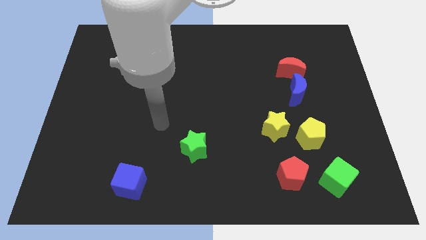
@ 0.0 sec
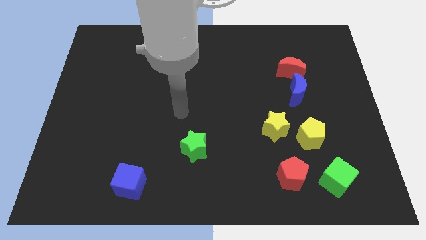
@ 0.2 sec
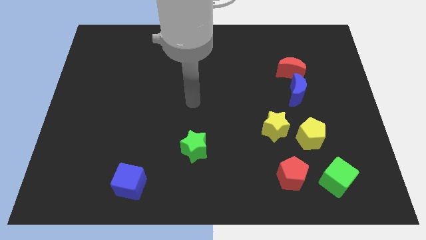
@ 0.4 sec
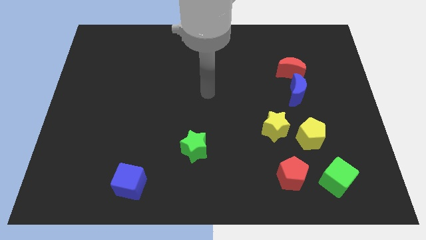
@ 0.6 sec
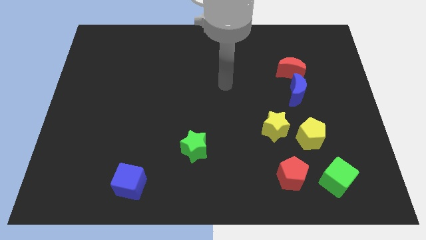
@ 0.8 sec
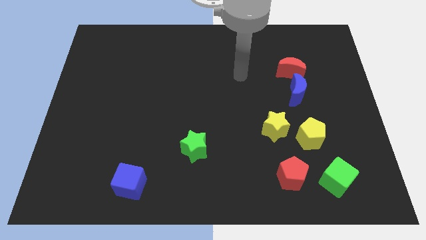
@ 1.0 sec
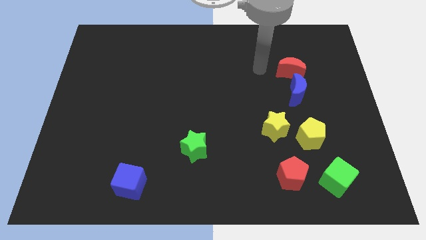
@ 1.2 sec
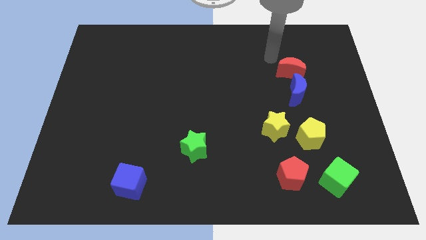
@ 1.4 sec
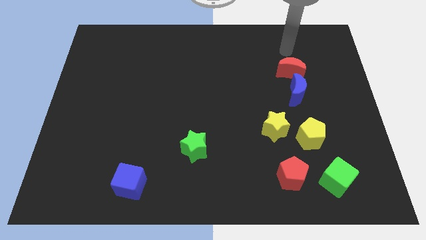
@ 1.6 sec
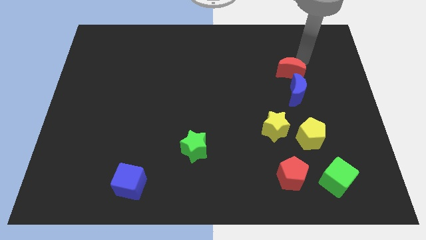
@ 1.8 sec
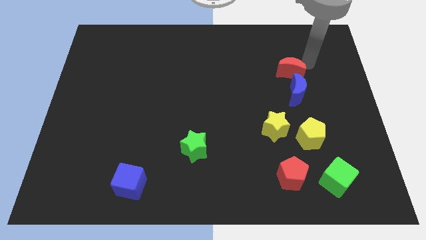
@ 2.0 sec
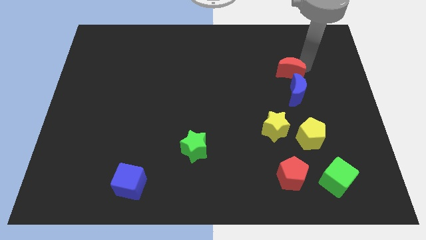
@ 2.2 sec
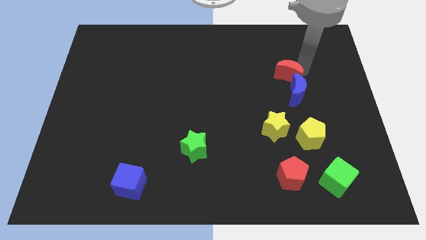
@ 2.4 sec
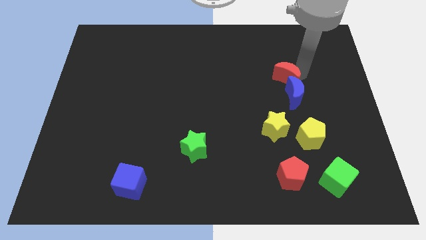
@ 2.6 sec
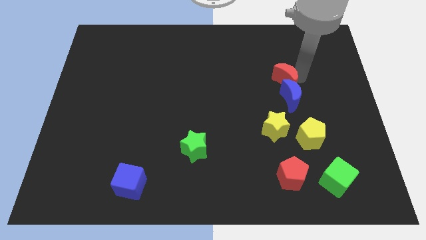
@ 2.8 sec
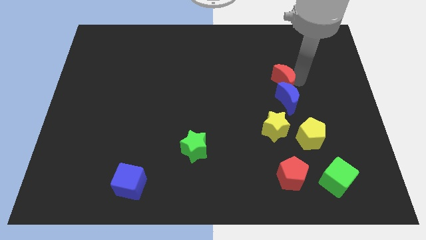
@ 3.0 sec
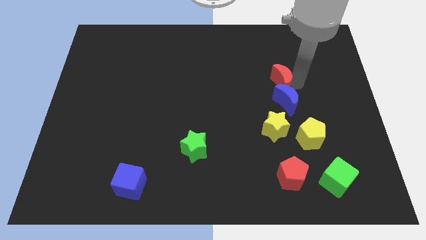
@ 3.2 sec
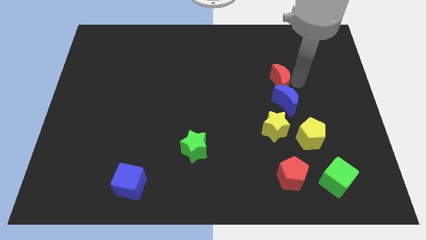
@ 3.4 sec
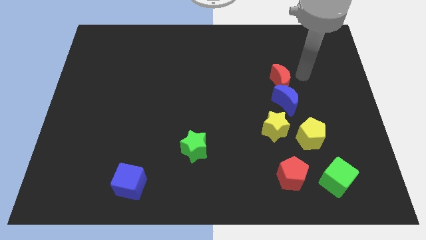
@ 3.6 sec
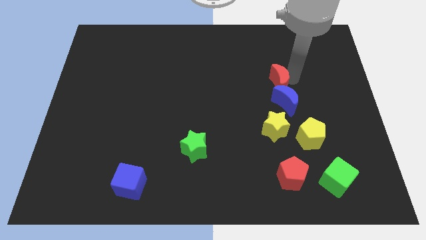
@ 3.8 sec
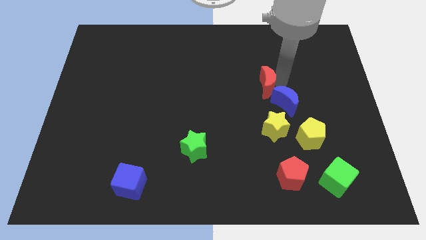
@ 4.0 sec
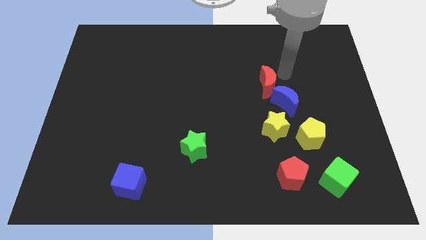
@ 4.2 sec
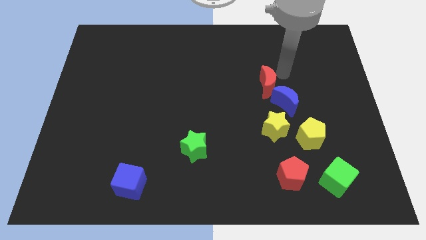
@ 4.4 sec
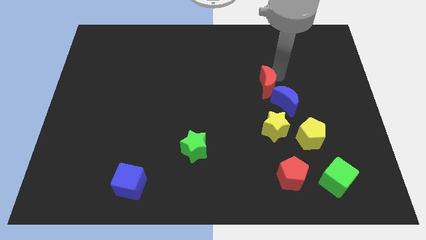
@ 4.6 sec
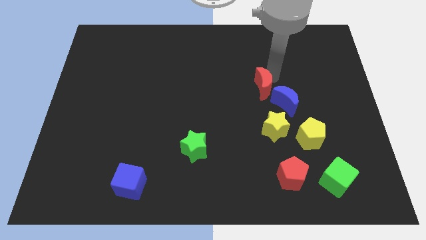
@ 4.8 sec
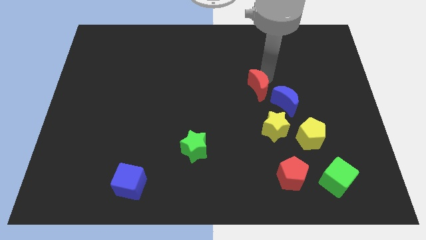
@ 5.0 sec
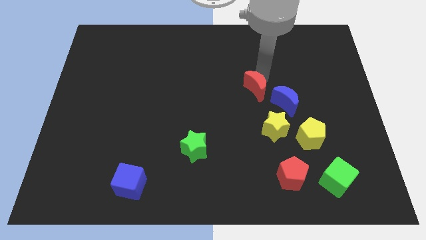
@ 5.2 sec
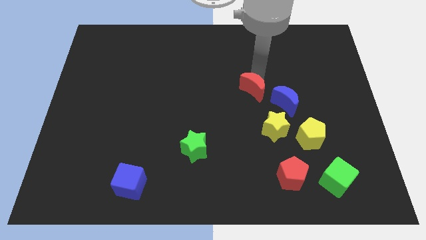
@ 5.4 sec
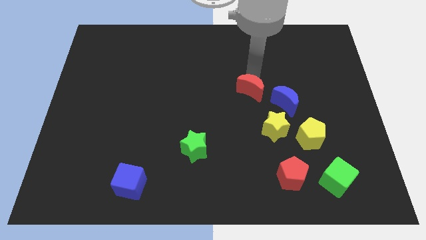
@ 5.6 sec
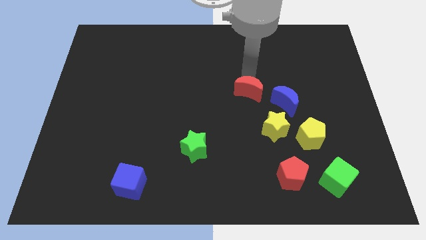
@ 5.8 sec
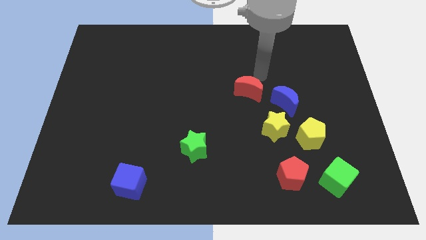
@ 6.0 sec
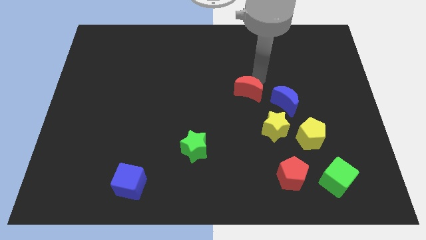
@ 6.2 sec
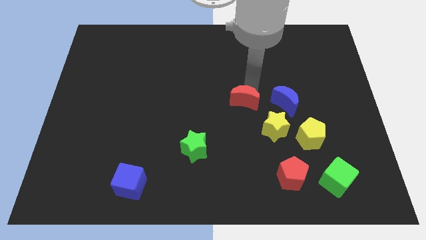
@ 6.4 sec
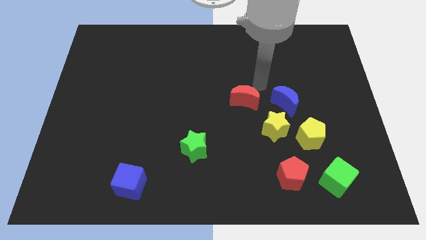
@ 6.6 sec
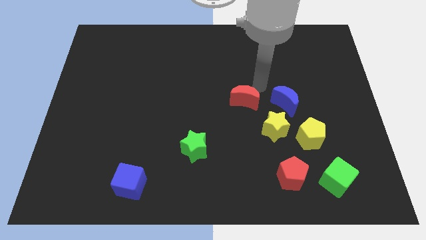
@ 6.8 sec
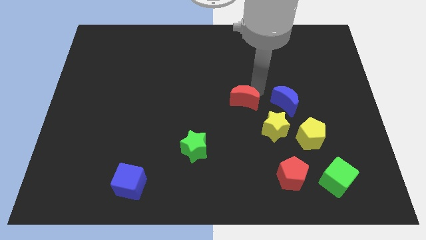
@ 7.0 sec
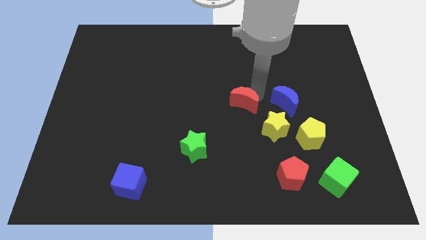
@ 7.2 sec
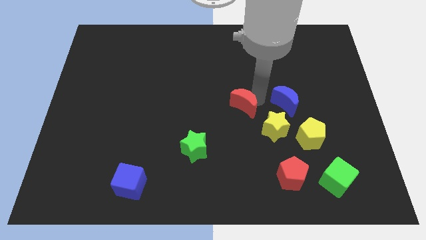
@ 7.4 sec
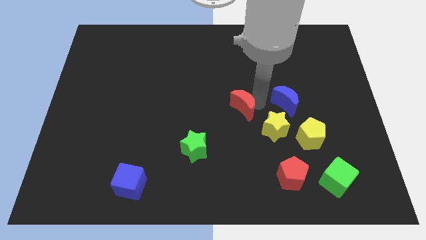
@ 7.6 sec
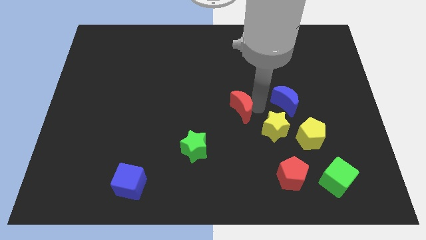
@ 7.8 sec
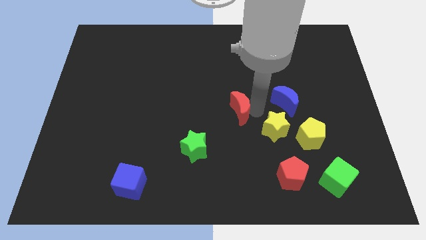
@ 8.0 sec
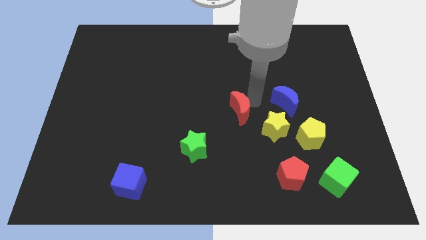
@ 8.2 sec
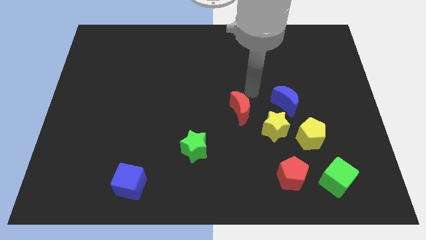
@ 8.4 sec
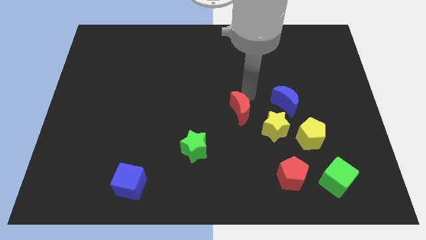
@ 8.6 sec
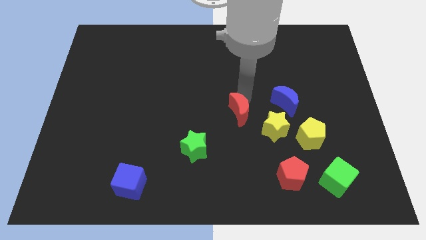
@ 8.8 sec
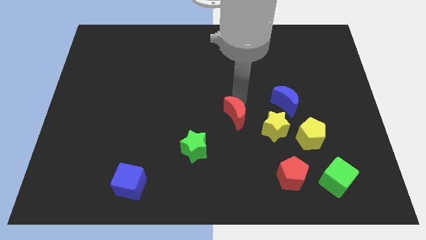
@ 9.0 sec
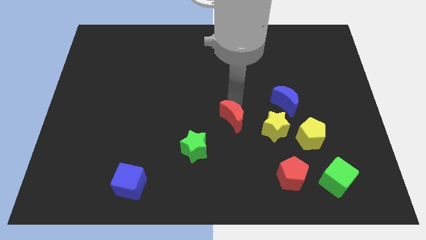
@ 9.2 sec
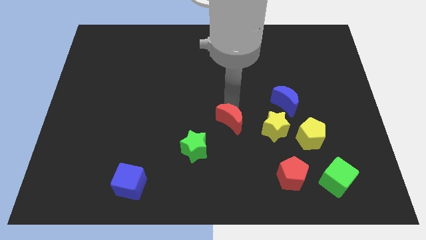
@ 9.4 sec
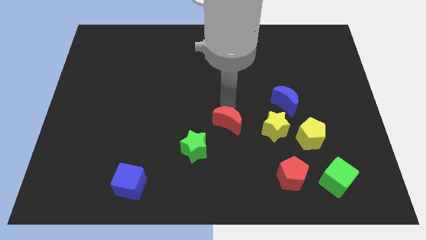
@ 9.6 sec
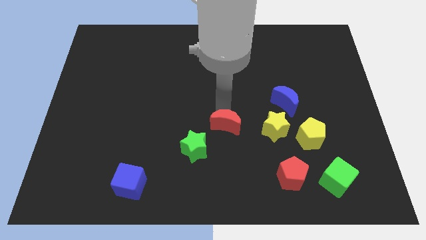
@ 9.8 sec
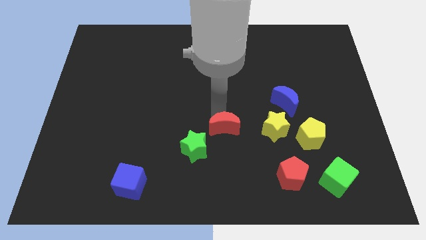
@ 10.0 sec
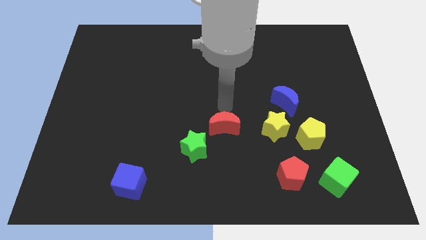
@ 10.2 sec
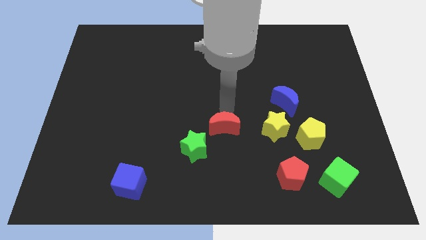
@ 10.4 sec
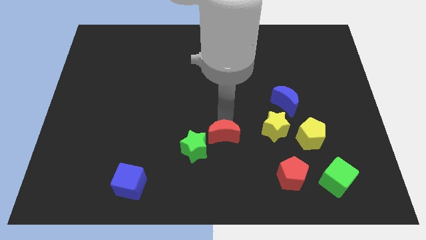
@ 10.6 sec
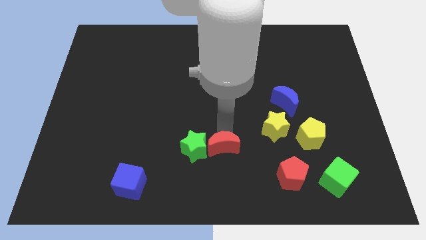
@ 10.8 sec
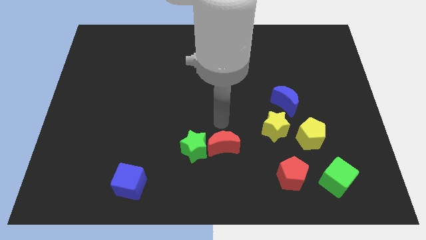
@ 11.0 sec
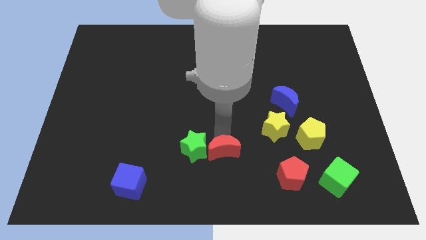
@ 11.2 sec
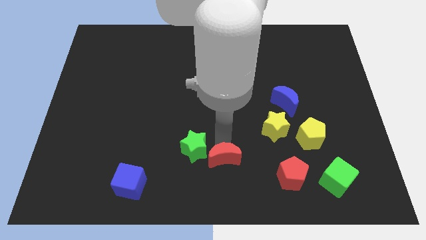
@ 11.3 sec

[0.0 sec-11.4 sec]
move the red moon to the bottom
